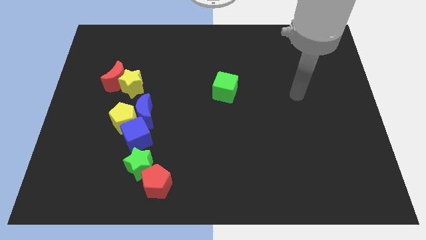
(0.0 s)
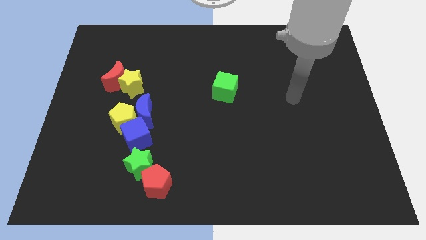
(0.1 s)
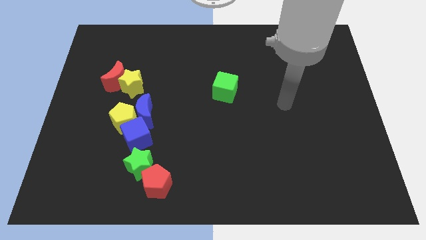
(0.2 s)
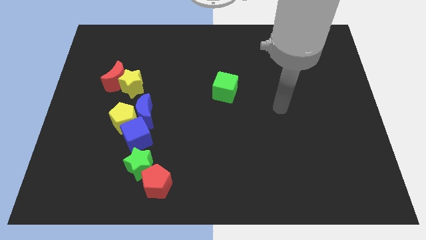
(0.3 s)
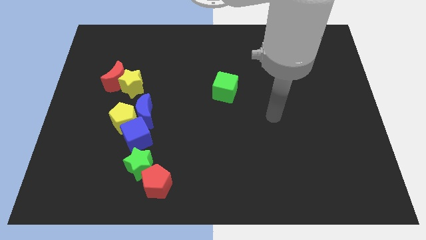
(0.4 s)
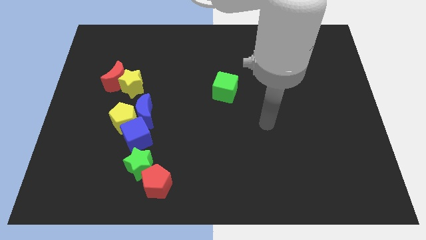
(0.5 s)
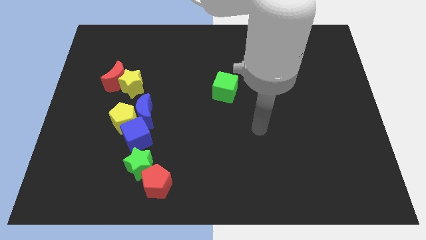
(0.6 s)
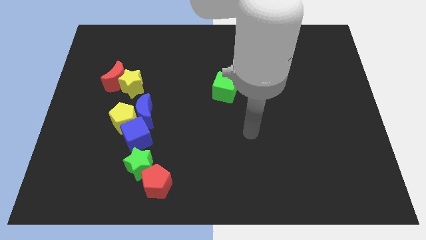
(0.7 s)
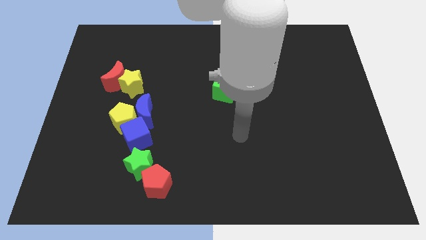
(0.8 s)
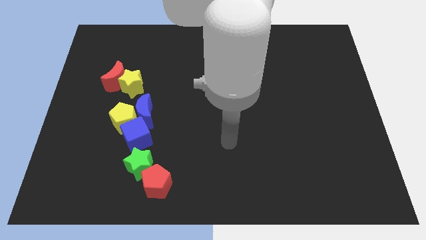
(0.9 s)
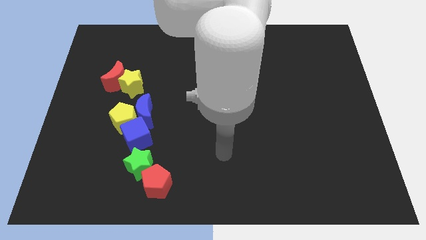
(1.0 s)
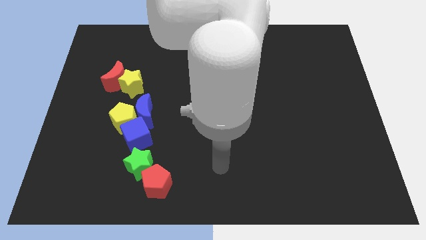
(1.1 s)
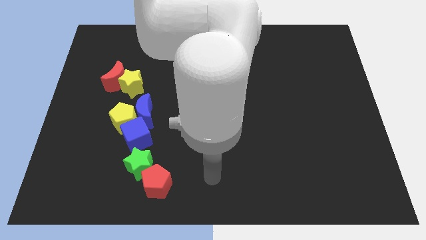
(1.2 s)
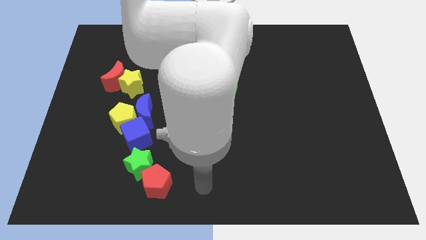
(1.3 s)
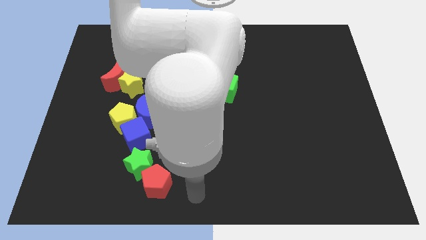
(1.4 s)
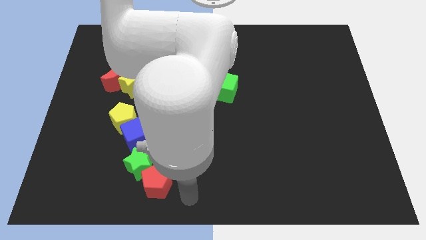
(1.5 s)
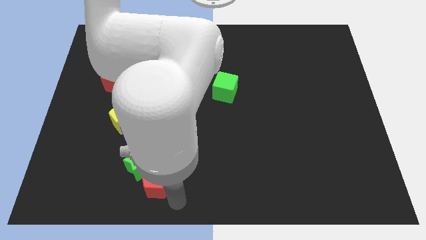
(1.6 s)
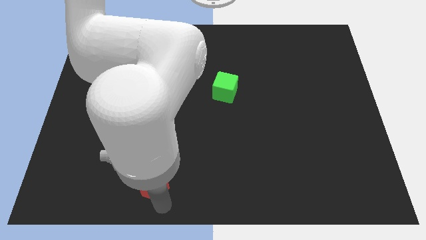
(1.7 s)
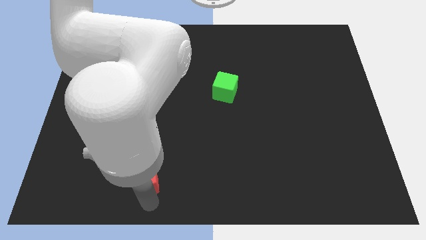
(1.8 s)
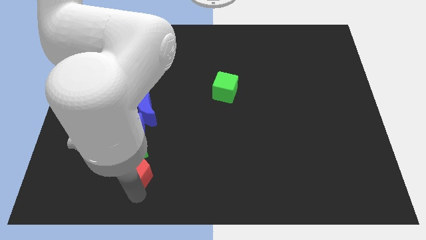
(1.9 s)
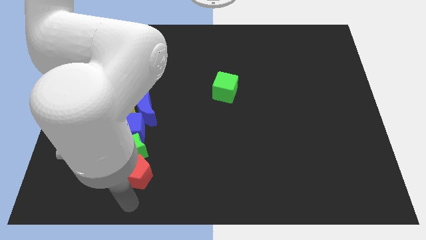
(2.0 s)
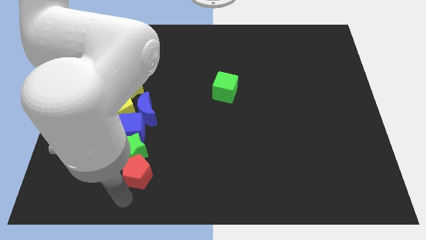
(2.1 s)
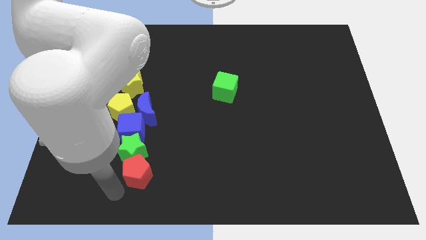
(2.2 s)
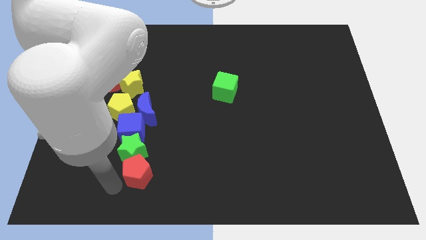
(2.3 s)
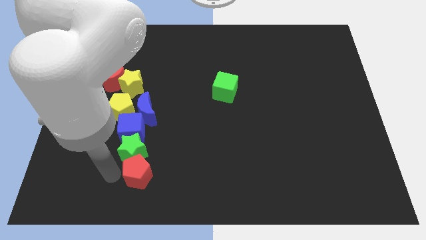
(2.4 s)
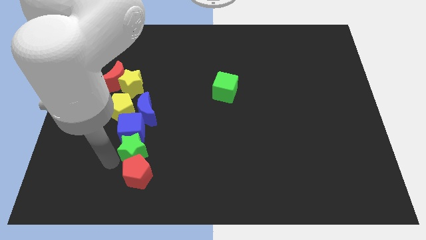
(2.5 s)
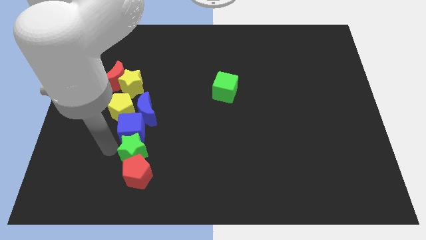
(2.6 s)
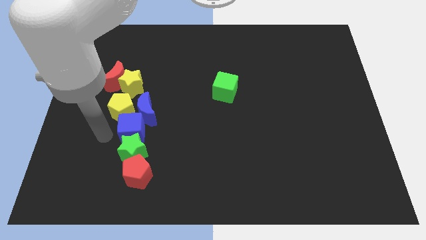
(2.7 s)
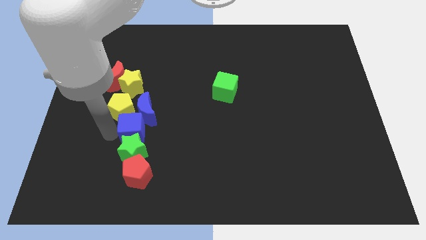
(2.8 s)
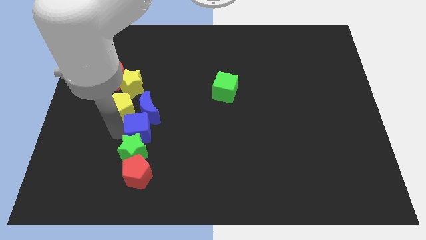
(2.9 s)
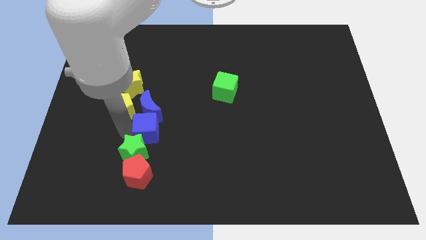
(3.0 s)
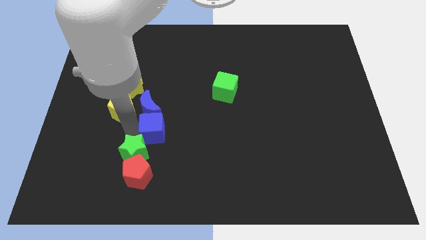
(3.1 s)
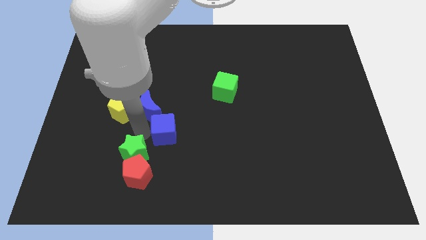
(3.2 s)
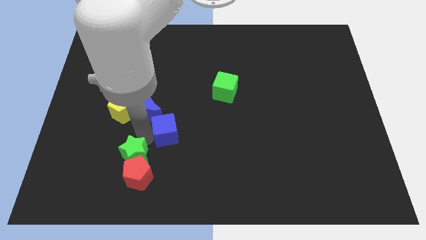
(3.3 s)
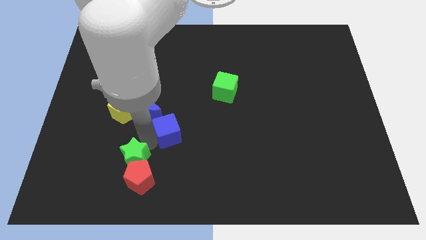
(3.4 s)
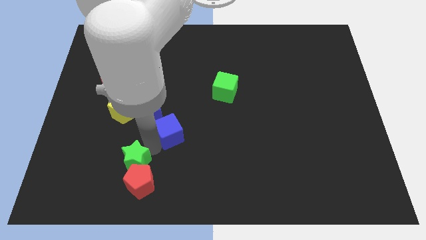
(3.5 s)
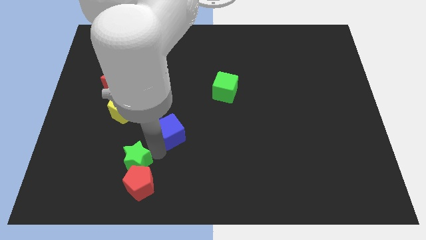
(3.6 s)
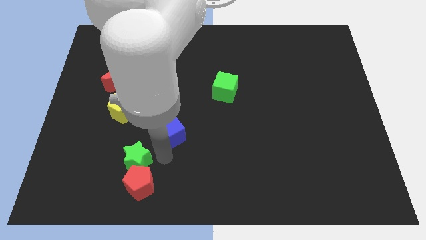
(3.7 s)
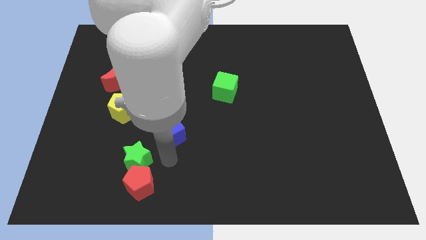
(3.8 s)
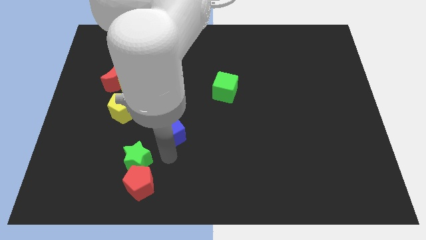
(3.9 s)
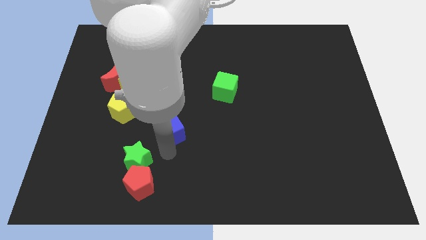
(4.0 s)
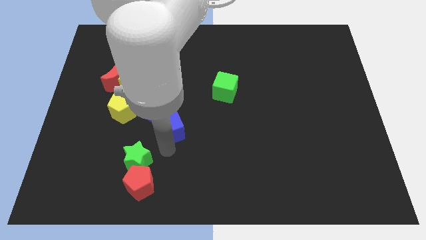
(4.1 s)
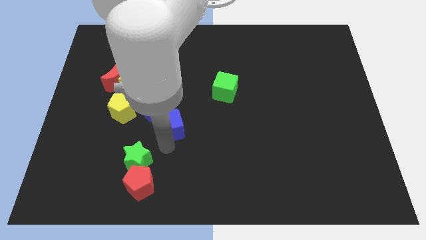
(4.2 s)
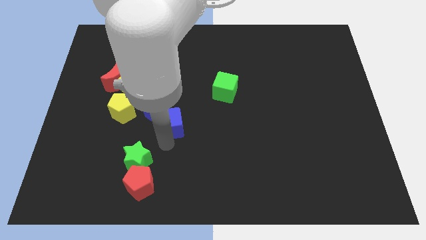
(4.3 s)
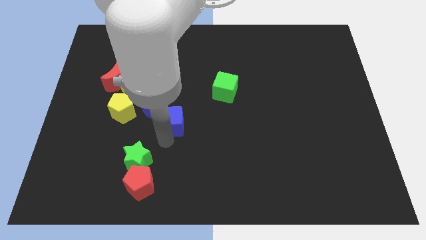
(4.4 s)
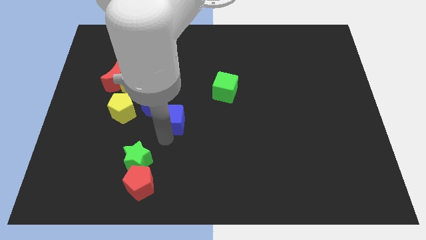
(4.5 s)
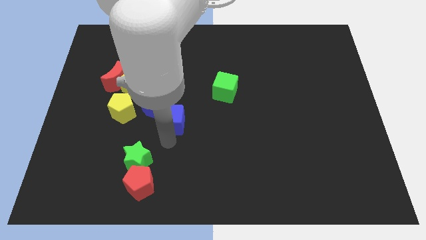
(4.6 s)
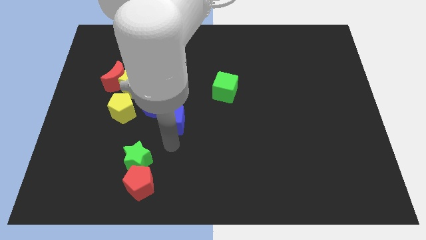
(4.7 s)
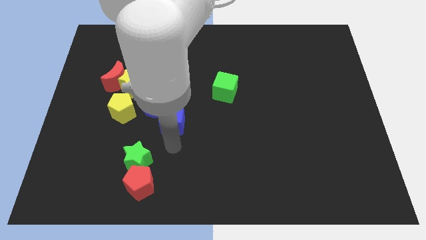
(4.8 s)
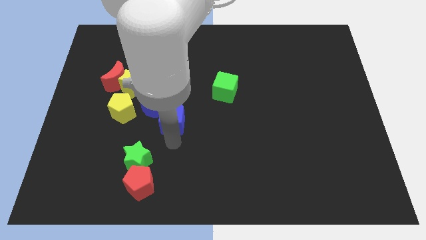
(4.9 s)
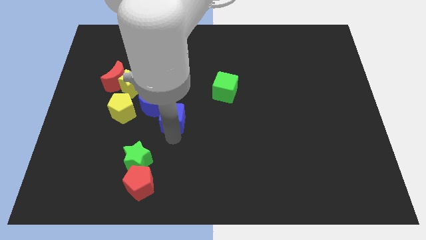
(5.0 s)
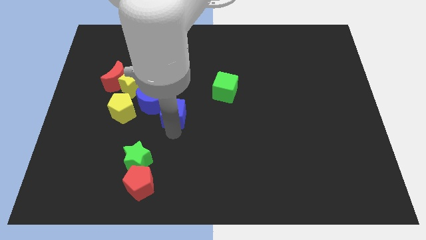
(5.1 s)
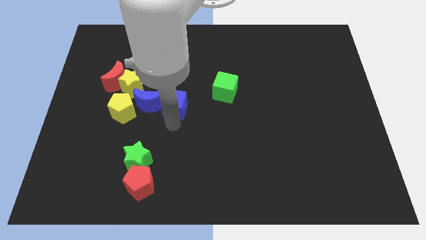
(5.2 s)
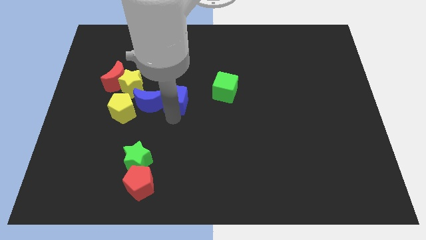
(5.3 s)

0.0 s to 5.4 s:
put the blue cube just left of the green cube

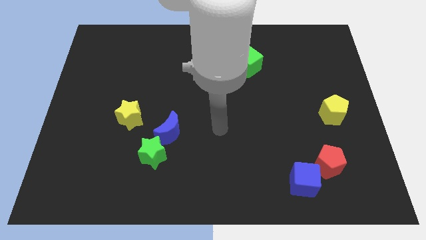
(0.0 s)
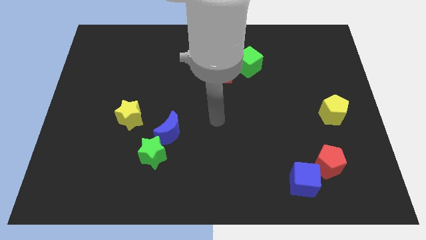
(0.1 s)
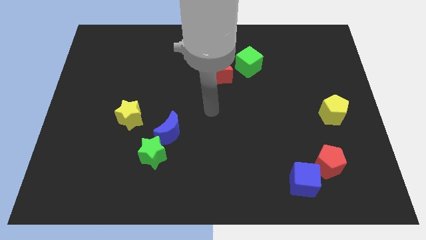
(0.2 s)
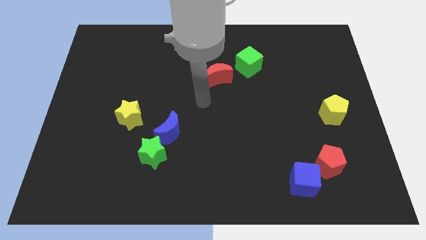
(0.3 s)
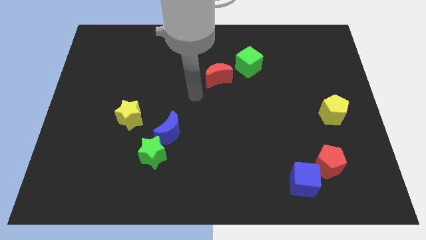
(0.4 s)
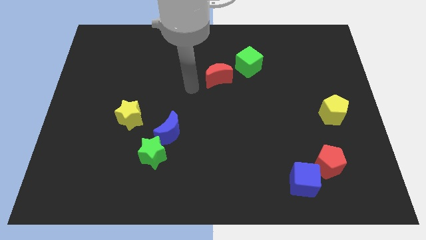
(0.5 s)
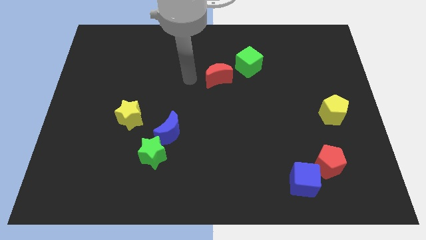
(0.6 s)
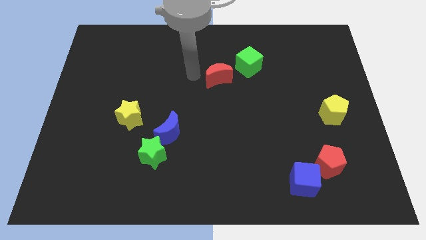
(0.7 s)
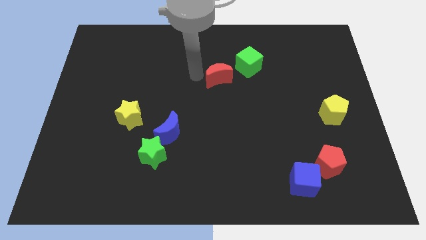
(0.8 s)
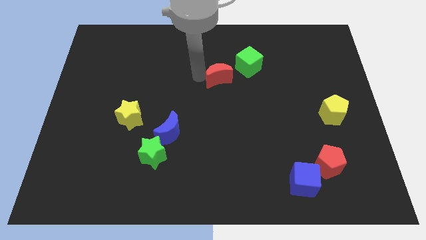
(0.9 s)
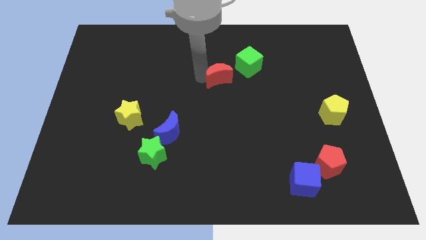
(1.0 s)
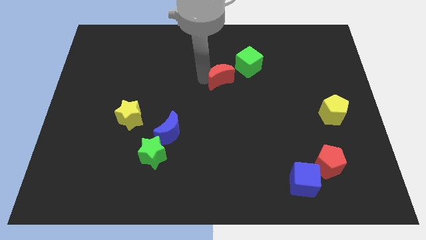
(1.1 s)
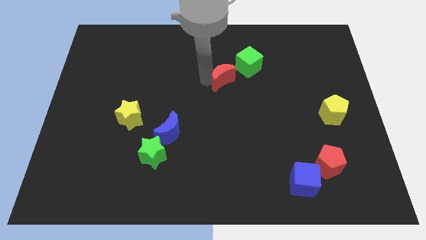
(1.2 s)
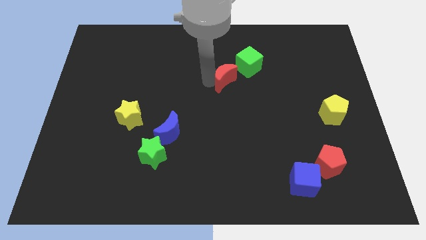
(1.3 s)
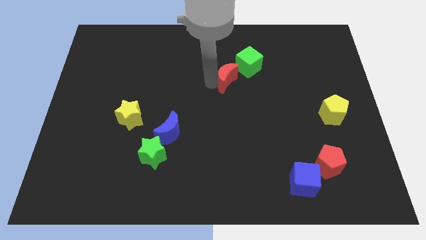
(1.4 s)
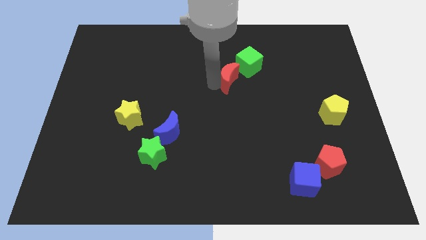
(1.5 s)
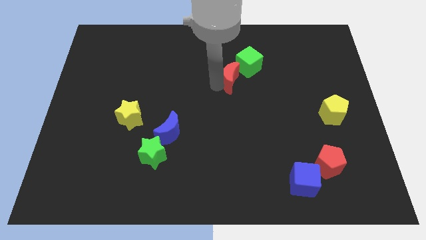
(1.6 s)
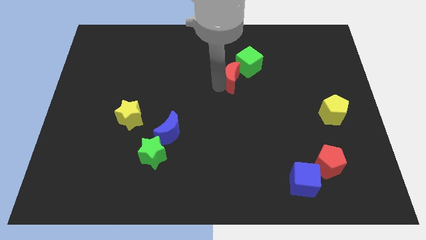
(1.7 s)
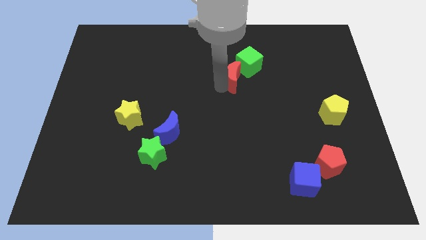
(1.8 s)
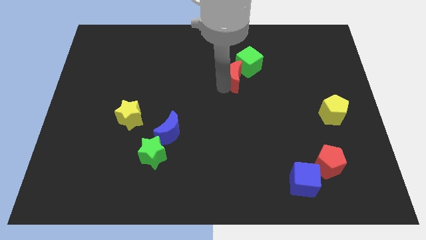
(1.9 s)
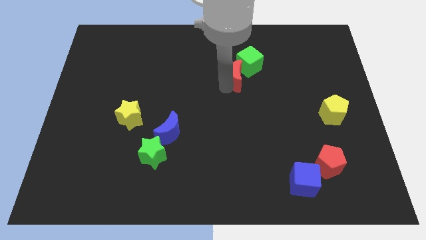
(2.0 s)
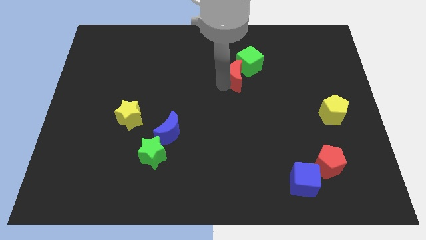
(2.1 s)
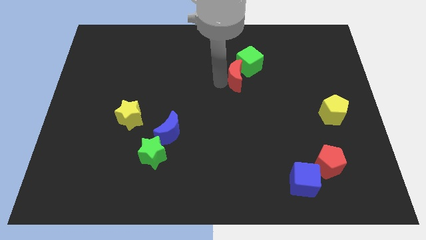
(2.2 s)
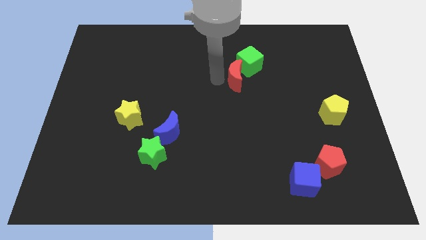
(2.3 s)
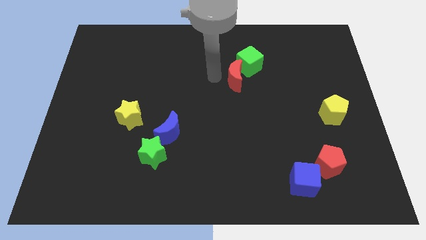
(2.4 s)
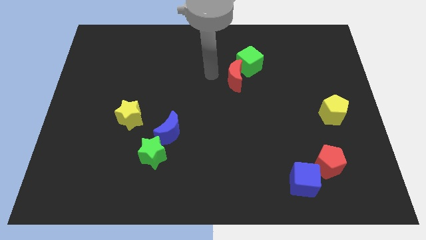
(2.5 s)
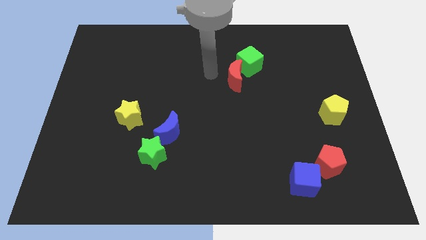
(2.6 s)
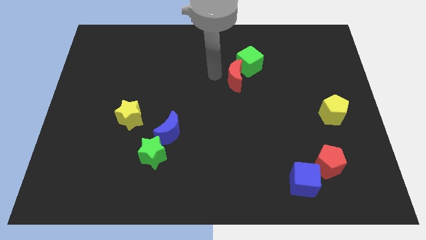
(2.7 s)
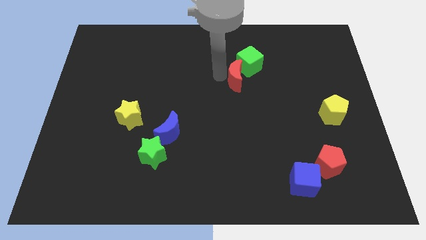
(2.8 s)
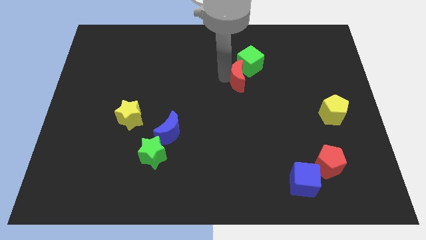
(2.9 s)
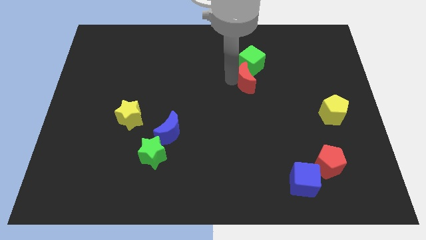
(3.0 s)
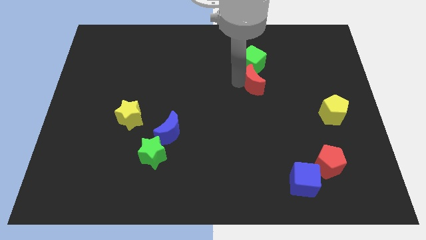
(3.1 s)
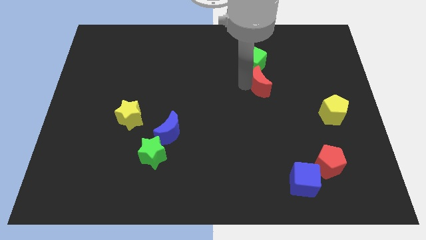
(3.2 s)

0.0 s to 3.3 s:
slide the red moon to the bottom right of the green cube
